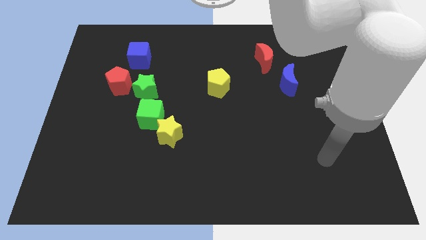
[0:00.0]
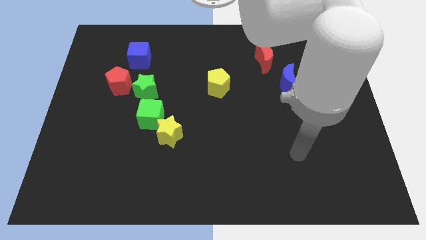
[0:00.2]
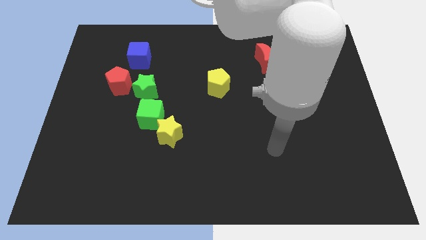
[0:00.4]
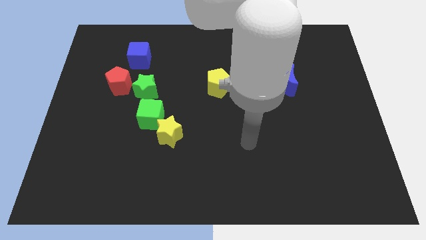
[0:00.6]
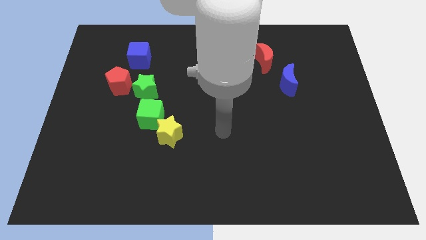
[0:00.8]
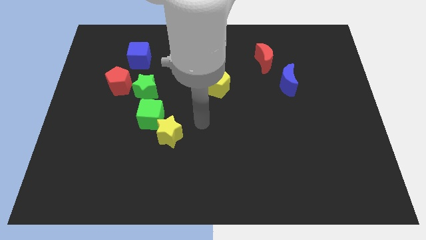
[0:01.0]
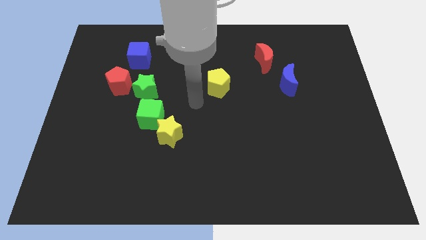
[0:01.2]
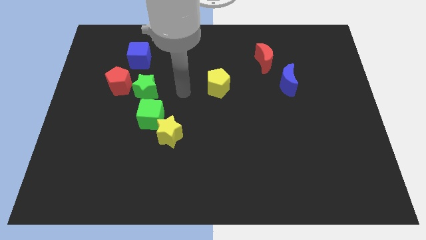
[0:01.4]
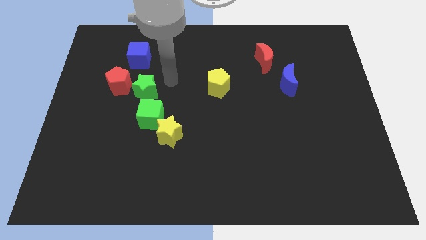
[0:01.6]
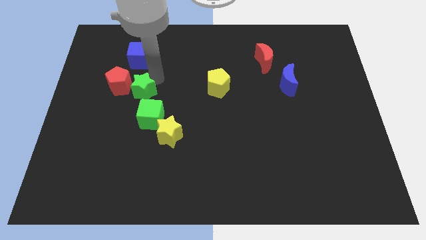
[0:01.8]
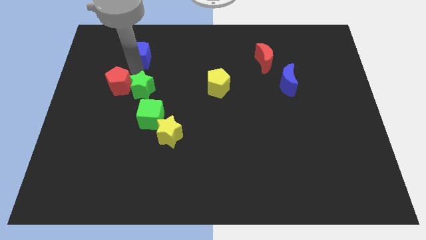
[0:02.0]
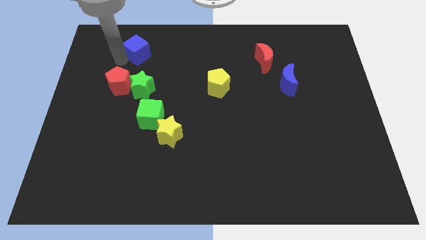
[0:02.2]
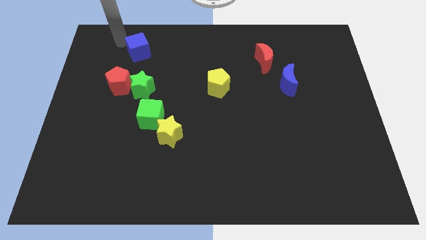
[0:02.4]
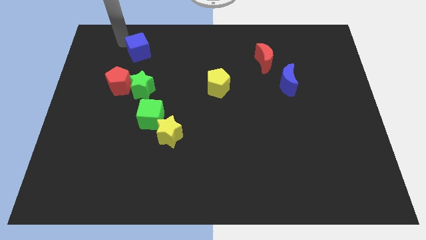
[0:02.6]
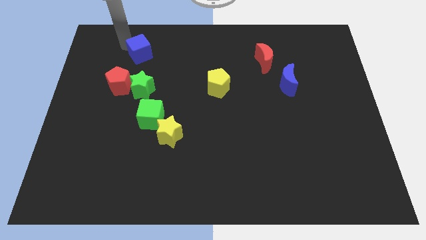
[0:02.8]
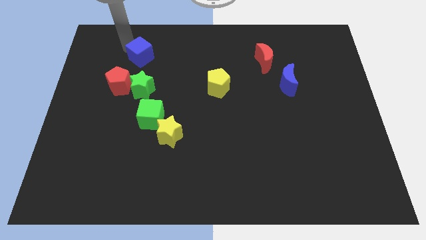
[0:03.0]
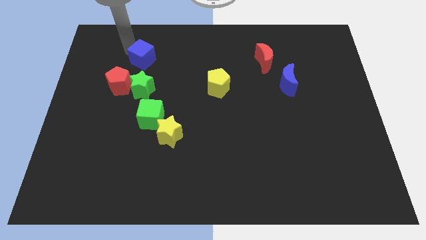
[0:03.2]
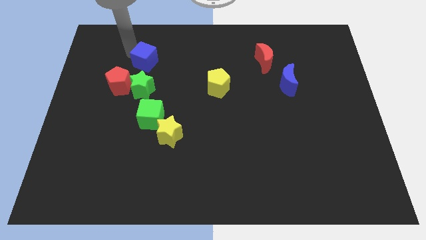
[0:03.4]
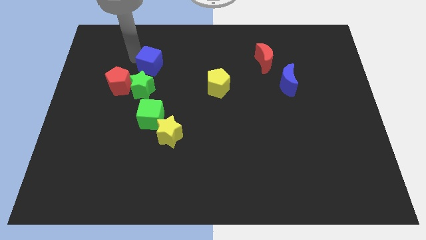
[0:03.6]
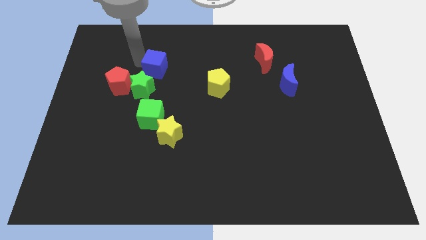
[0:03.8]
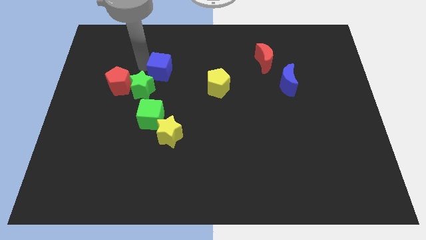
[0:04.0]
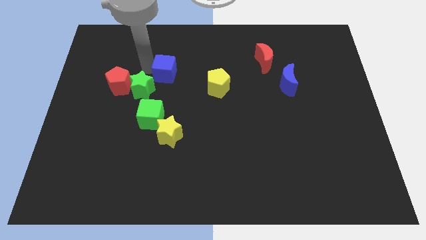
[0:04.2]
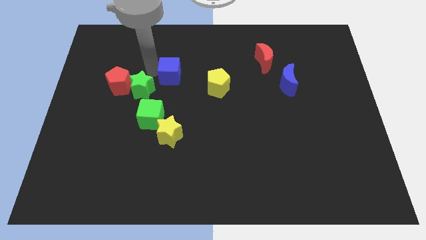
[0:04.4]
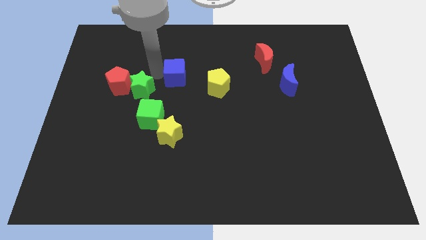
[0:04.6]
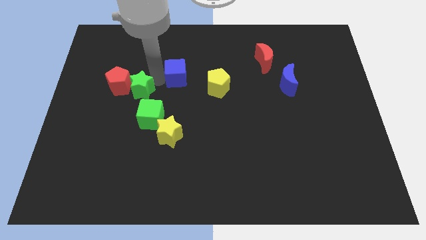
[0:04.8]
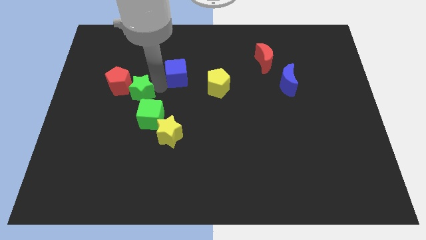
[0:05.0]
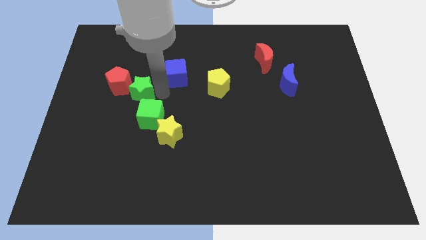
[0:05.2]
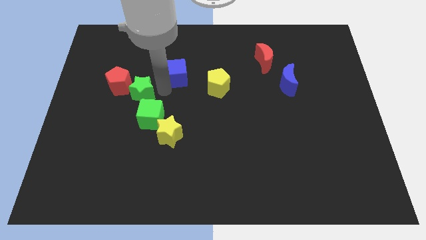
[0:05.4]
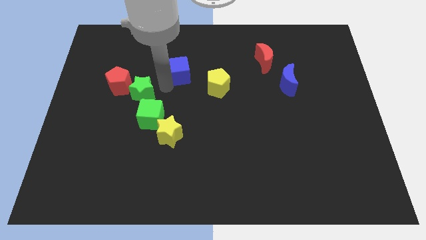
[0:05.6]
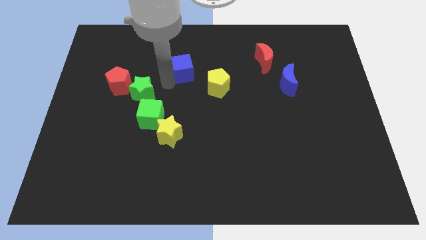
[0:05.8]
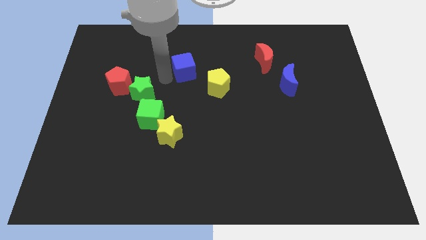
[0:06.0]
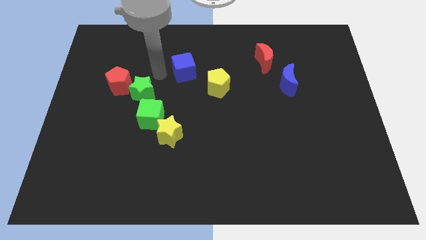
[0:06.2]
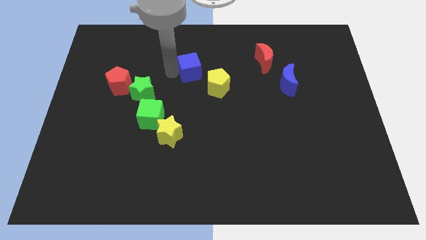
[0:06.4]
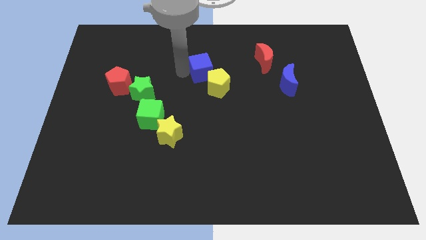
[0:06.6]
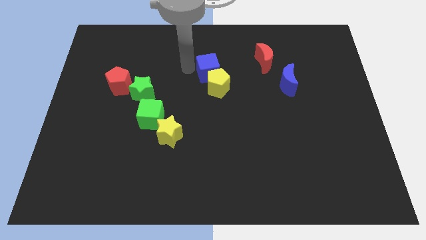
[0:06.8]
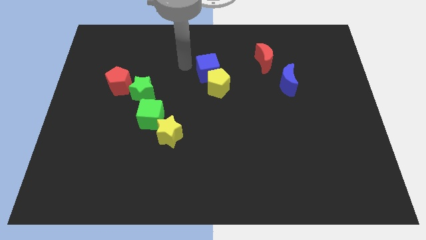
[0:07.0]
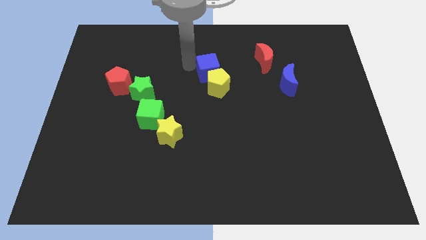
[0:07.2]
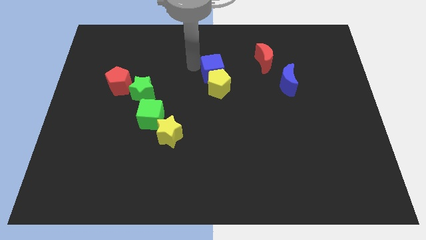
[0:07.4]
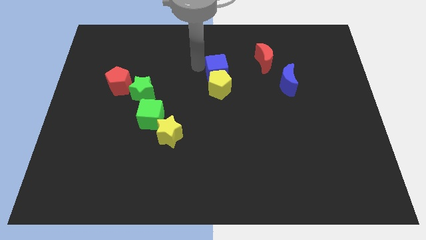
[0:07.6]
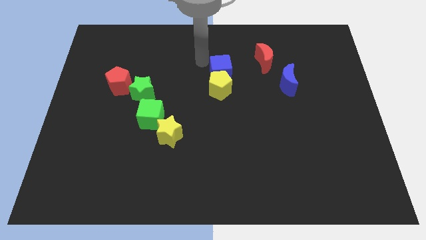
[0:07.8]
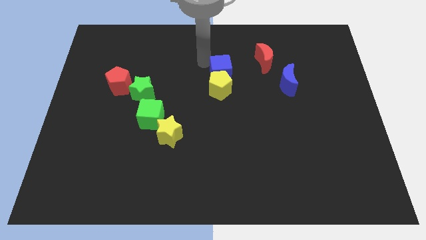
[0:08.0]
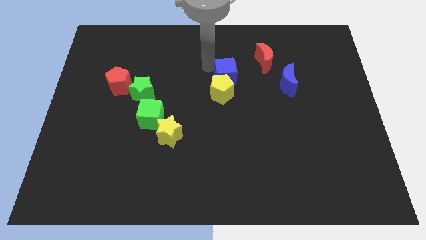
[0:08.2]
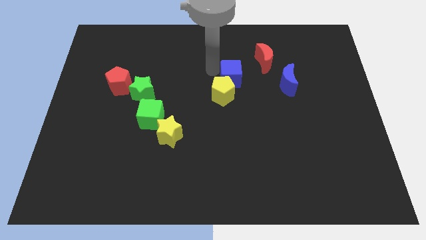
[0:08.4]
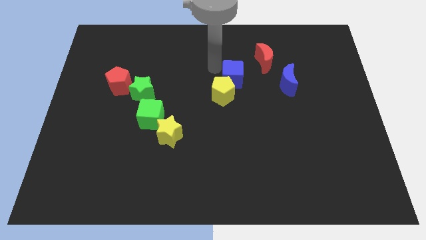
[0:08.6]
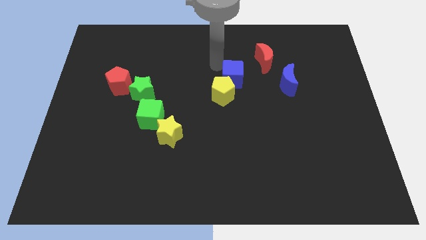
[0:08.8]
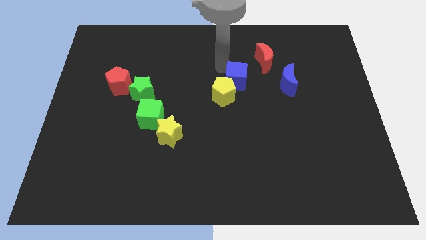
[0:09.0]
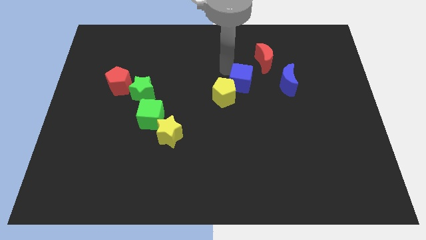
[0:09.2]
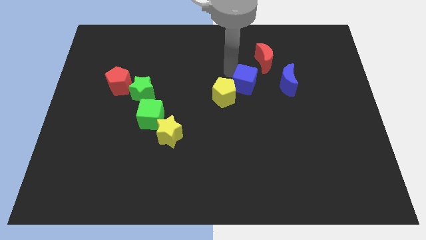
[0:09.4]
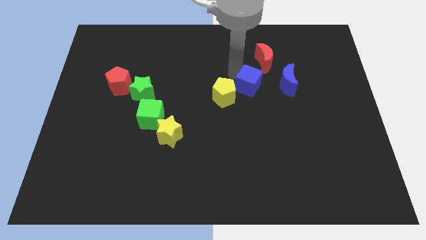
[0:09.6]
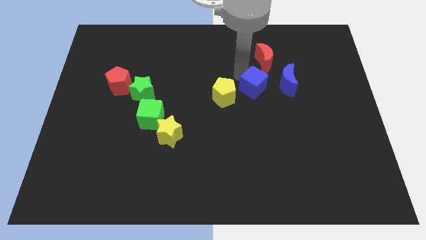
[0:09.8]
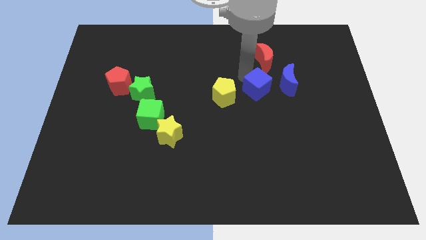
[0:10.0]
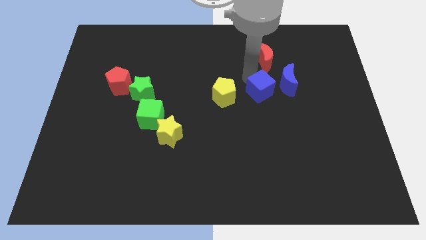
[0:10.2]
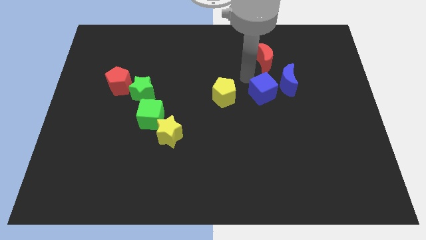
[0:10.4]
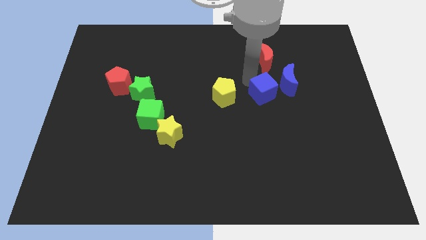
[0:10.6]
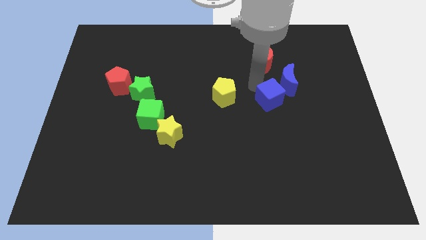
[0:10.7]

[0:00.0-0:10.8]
move the blue cube to the bottom of the blue moon

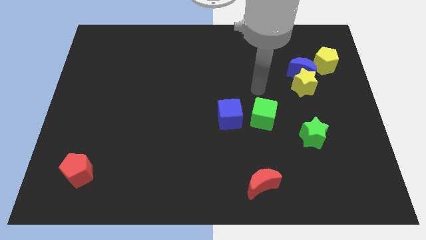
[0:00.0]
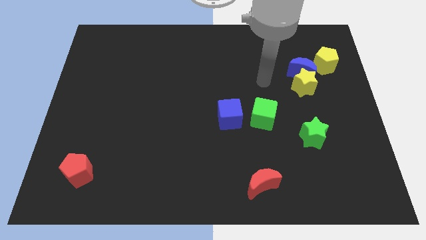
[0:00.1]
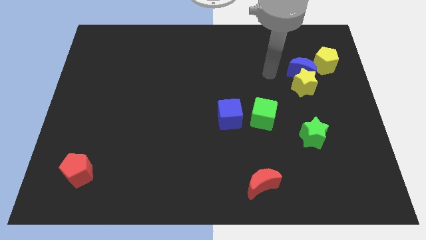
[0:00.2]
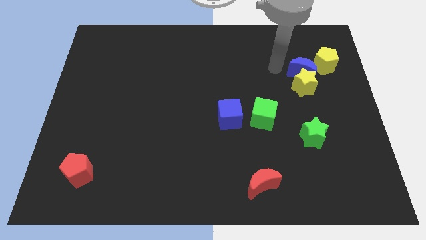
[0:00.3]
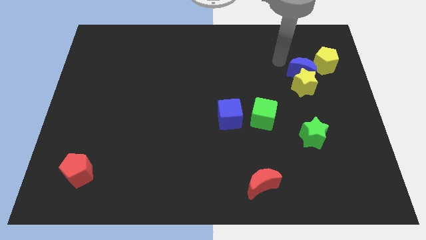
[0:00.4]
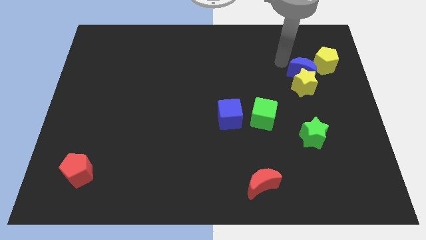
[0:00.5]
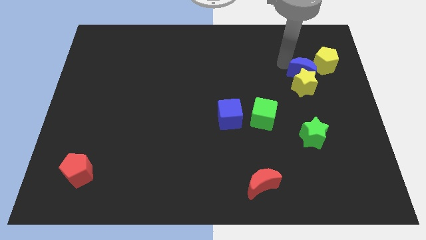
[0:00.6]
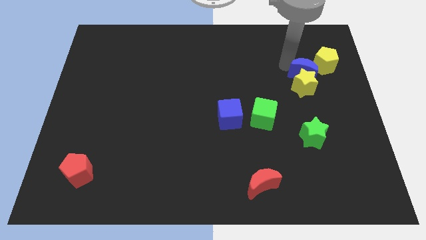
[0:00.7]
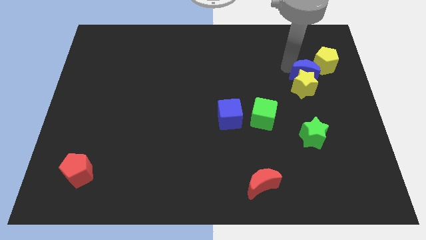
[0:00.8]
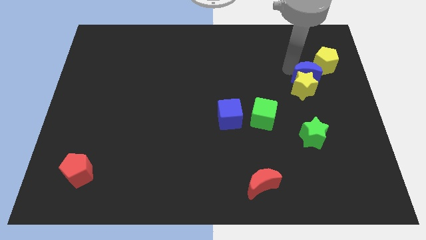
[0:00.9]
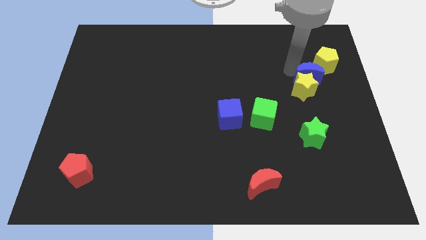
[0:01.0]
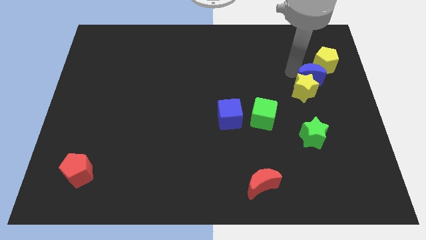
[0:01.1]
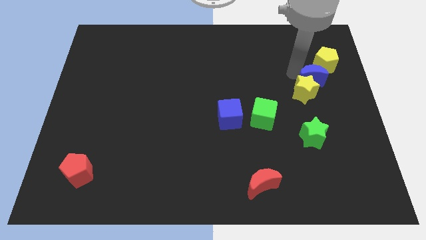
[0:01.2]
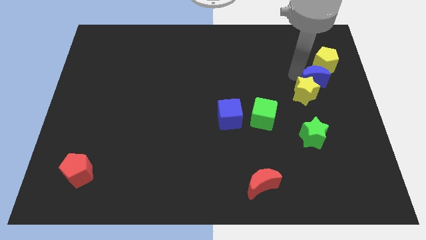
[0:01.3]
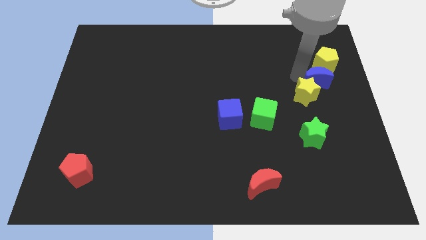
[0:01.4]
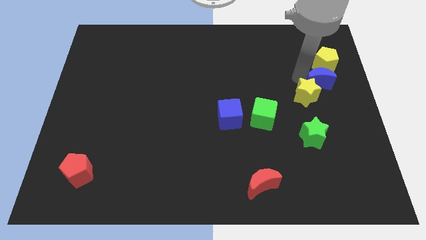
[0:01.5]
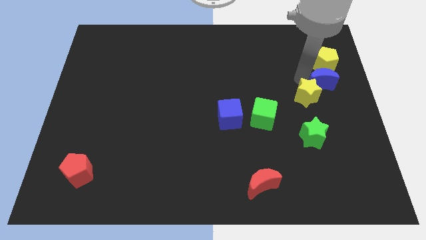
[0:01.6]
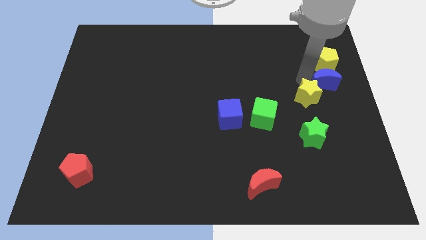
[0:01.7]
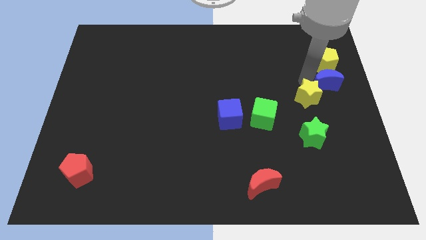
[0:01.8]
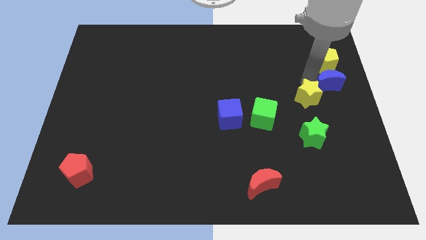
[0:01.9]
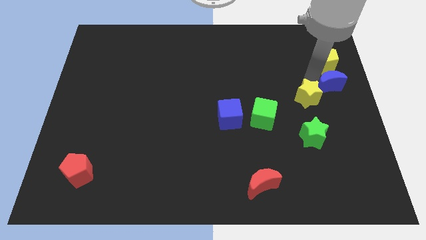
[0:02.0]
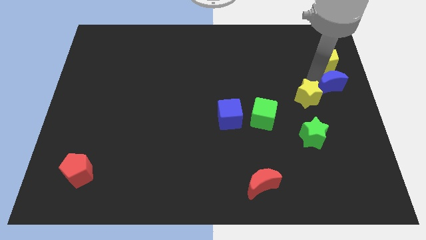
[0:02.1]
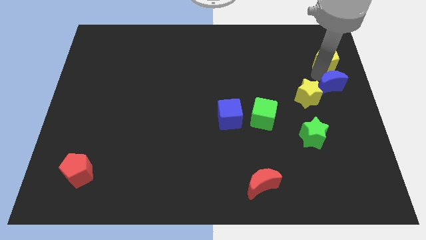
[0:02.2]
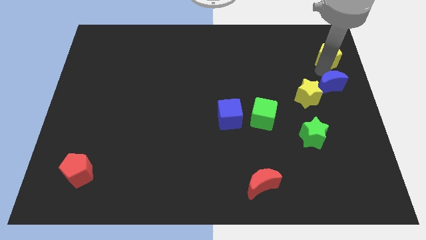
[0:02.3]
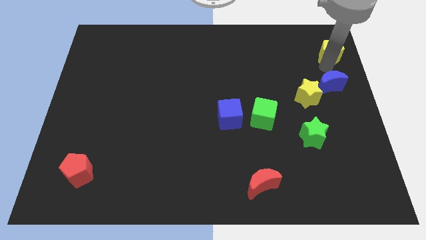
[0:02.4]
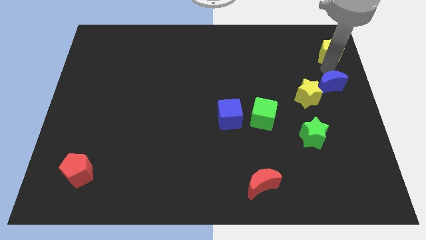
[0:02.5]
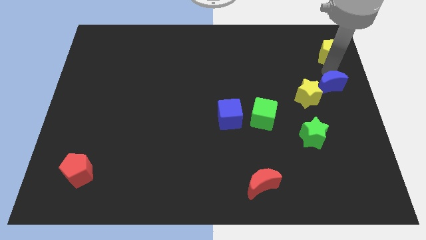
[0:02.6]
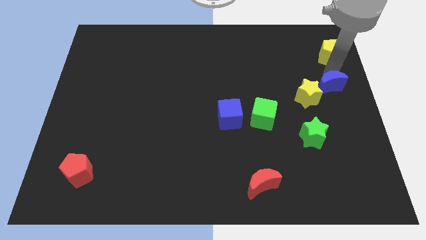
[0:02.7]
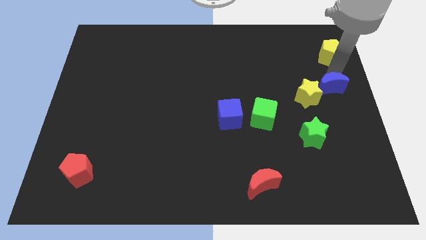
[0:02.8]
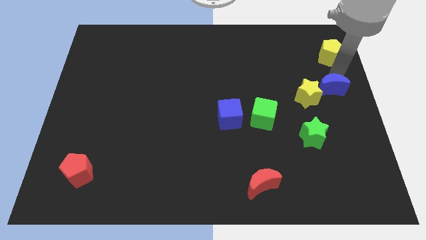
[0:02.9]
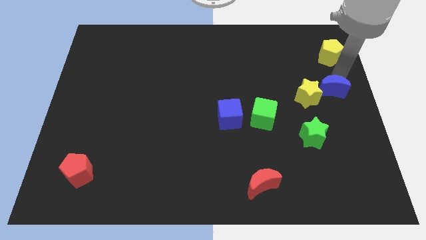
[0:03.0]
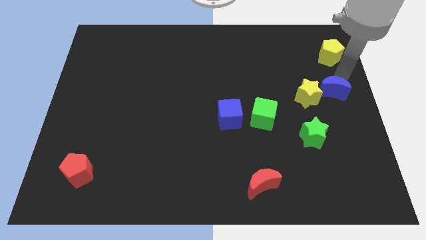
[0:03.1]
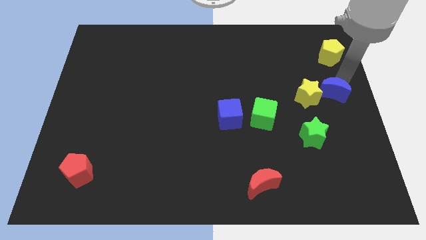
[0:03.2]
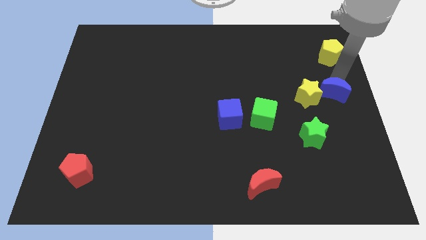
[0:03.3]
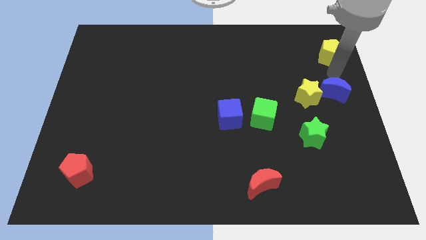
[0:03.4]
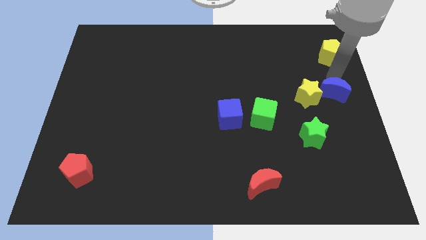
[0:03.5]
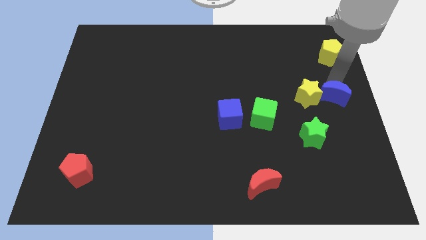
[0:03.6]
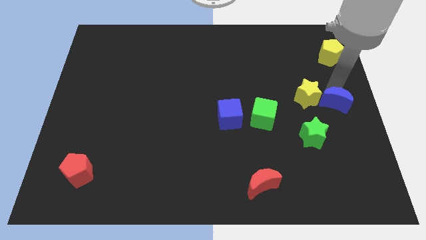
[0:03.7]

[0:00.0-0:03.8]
move the blue moon to the top right side of the green star
